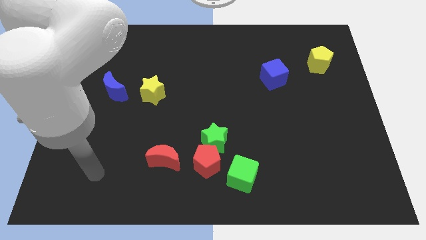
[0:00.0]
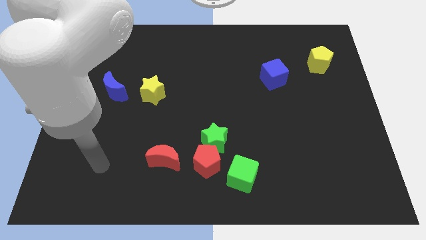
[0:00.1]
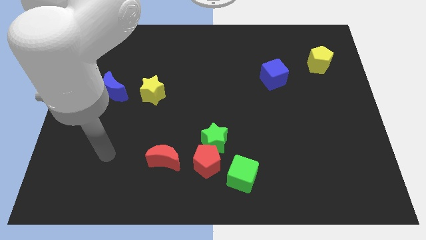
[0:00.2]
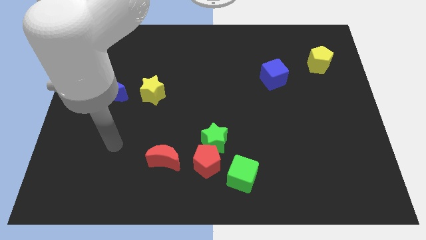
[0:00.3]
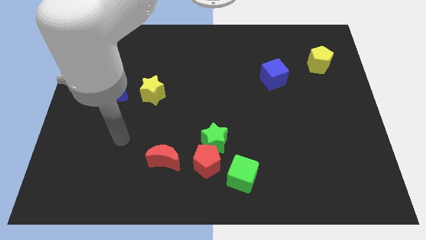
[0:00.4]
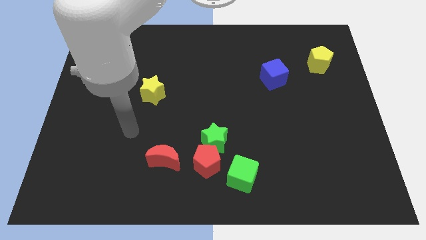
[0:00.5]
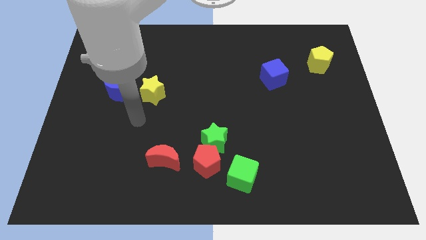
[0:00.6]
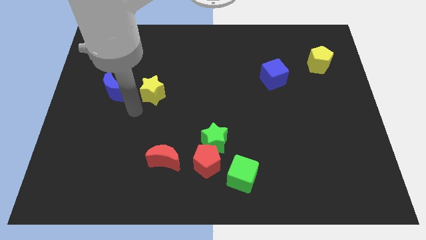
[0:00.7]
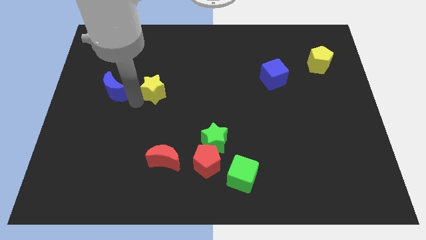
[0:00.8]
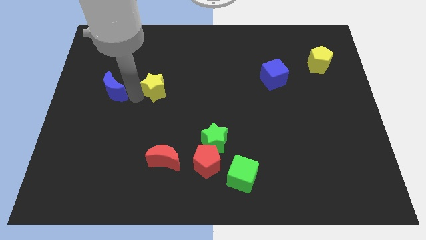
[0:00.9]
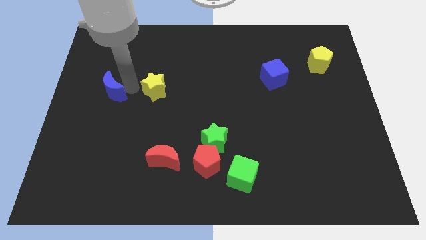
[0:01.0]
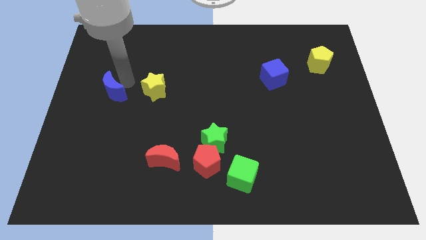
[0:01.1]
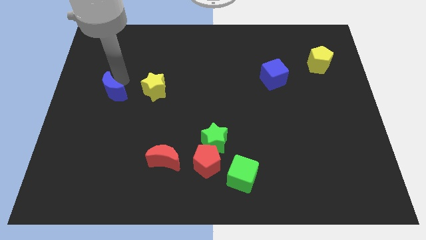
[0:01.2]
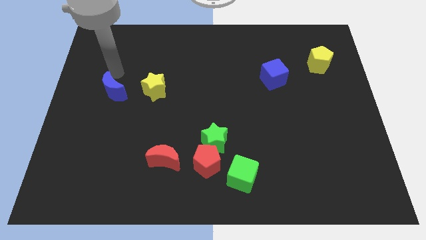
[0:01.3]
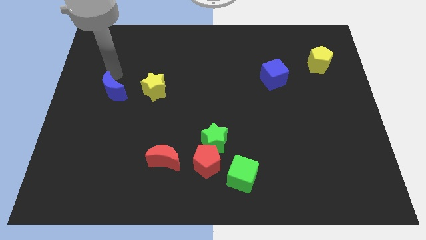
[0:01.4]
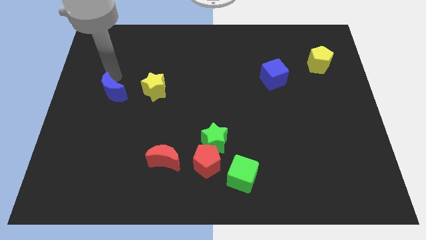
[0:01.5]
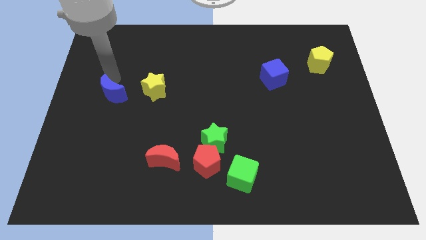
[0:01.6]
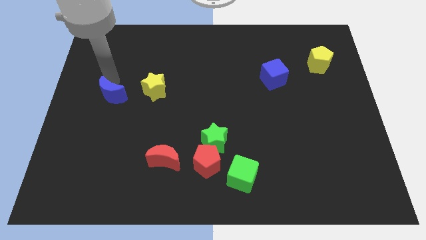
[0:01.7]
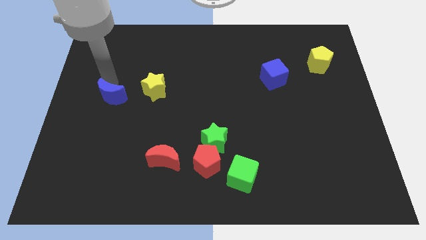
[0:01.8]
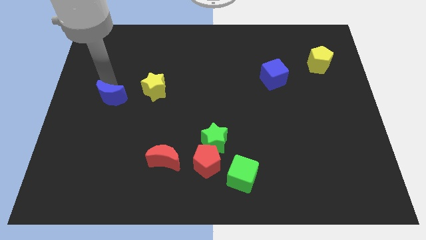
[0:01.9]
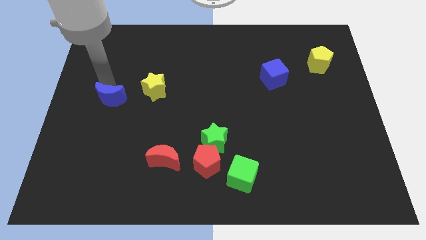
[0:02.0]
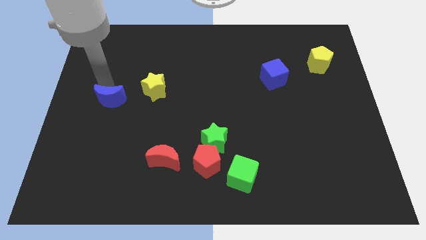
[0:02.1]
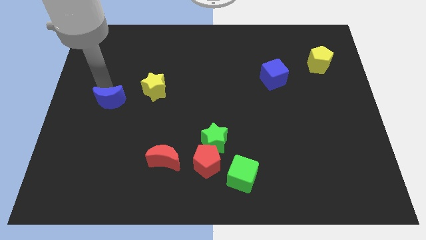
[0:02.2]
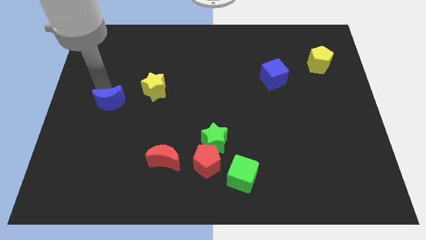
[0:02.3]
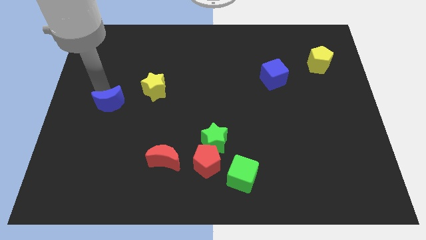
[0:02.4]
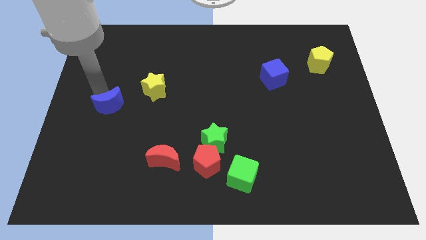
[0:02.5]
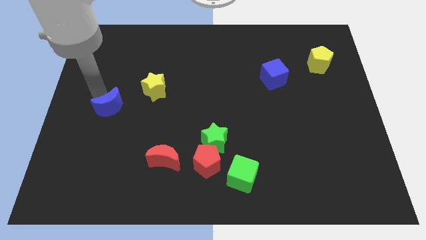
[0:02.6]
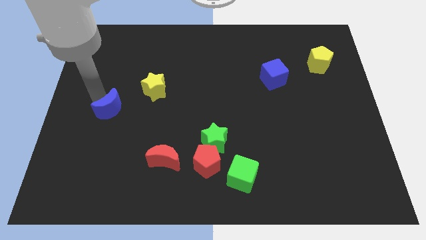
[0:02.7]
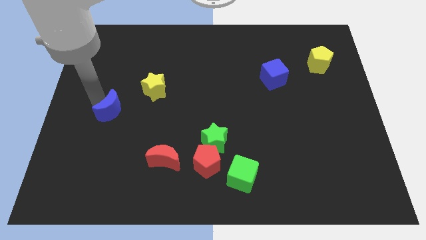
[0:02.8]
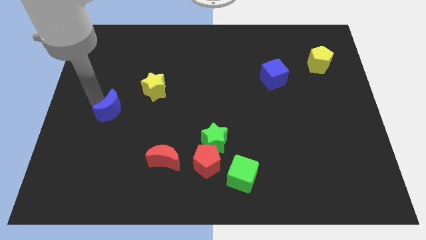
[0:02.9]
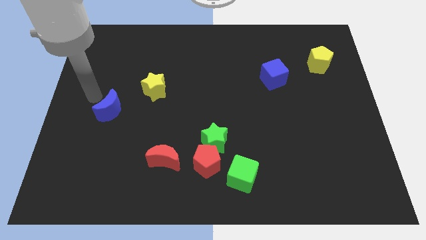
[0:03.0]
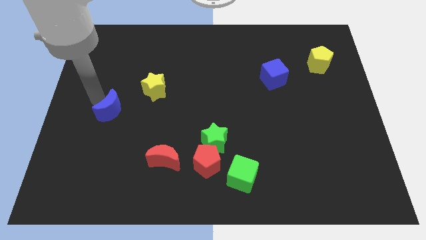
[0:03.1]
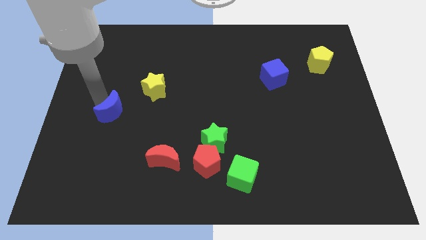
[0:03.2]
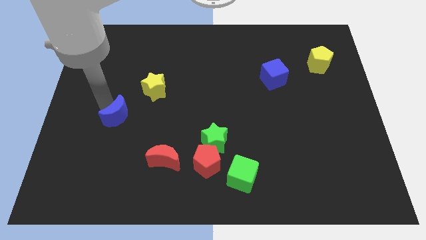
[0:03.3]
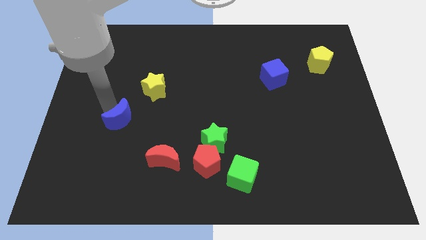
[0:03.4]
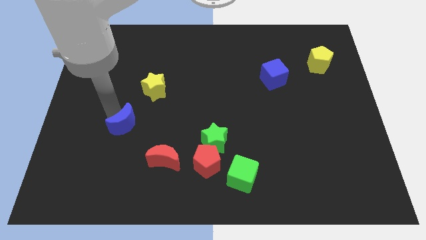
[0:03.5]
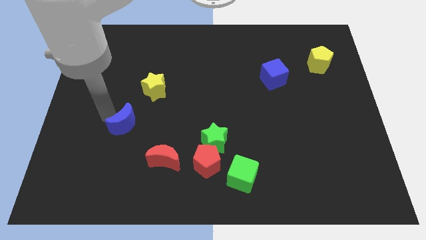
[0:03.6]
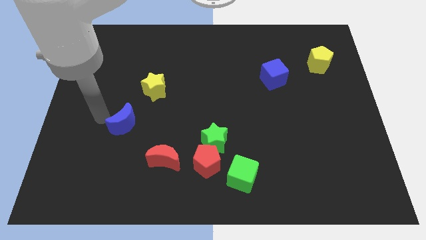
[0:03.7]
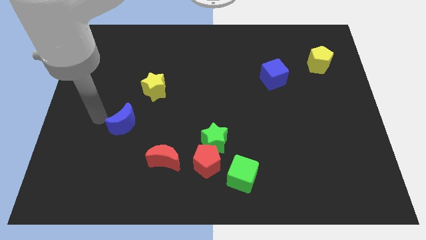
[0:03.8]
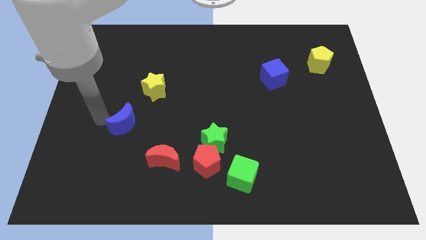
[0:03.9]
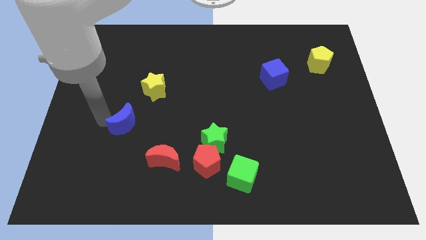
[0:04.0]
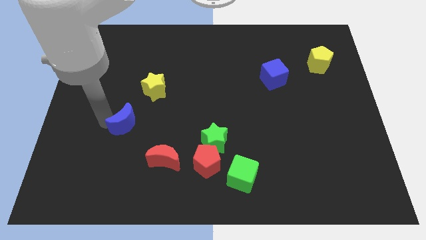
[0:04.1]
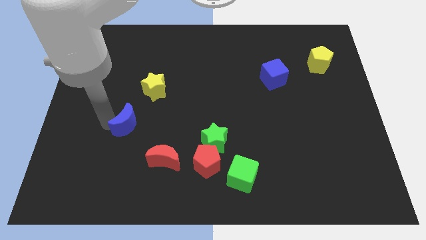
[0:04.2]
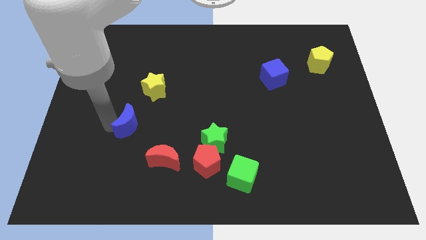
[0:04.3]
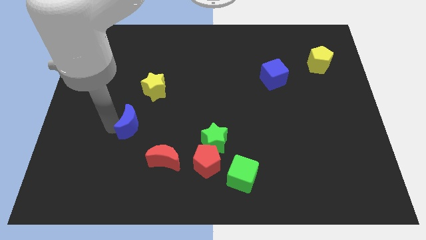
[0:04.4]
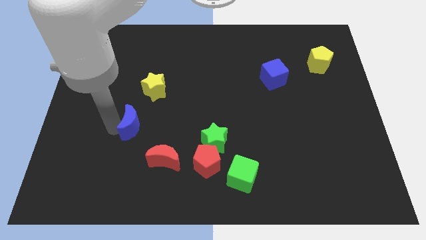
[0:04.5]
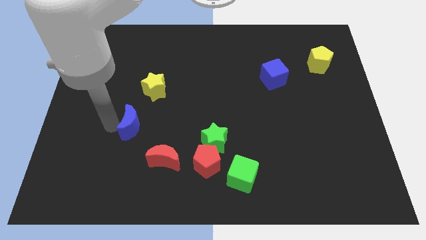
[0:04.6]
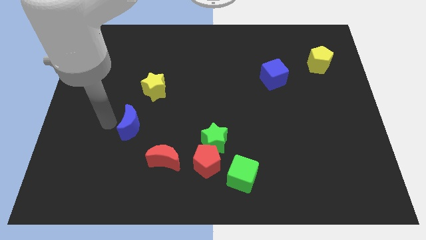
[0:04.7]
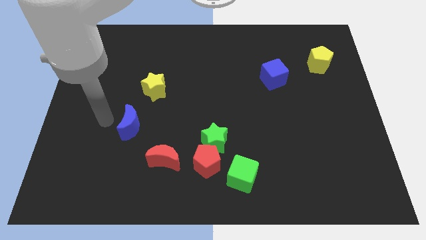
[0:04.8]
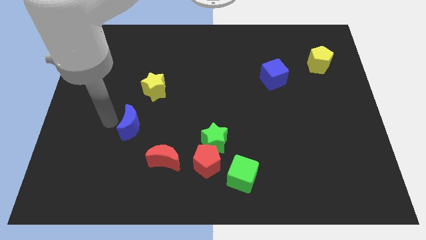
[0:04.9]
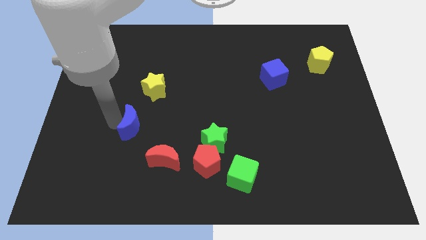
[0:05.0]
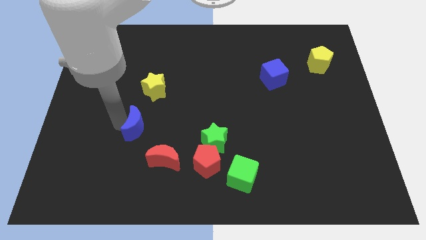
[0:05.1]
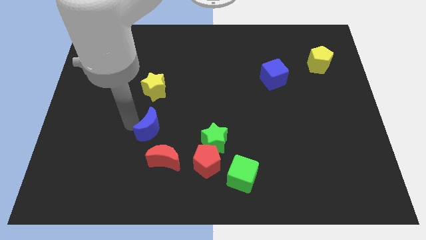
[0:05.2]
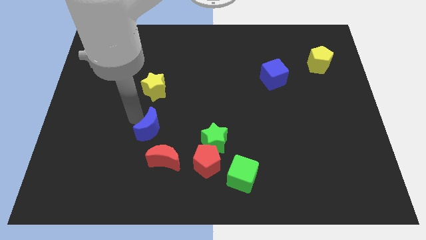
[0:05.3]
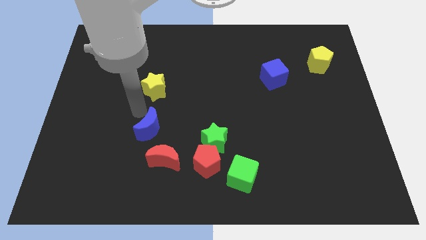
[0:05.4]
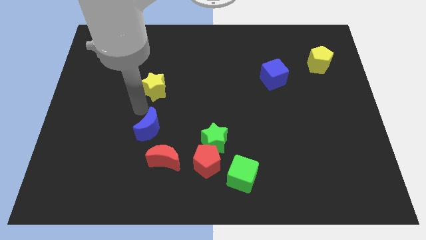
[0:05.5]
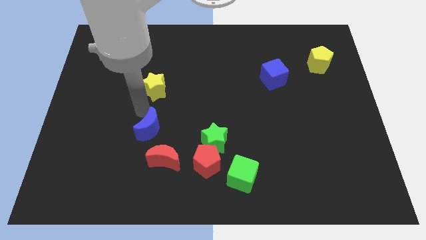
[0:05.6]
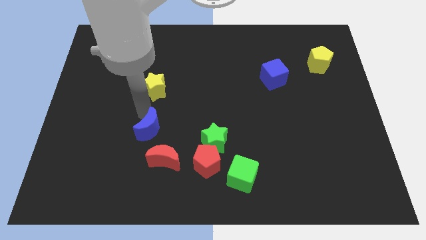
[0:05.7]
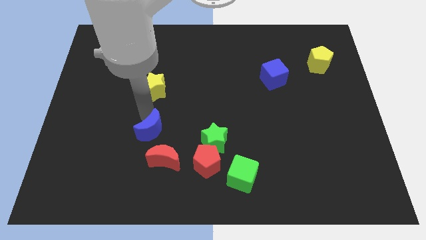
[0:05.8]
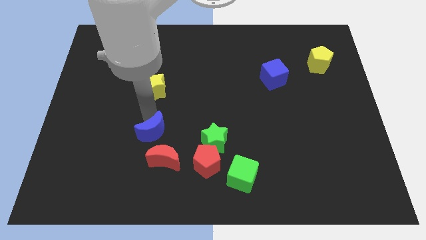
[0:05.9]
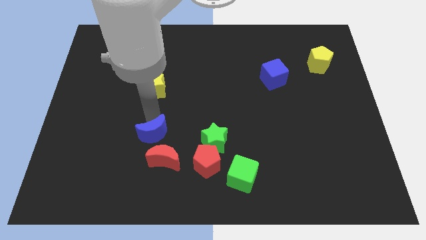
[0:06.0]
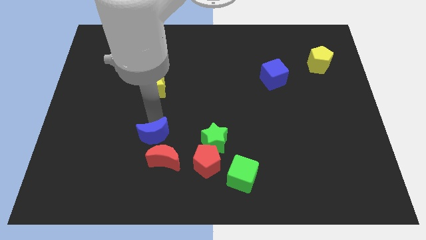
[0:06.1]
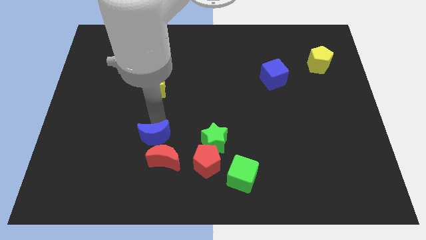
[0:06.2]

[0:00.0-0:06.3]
move the blue moon close to the red moon

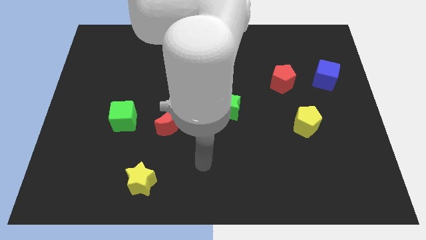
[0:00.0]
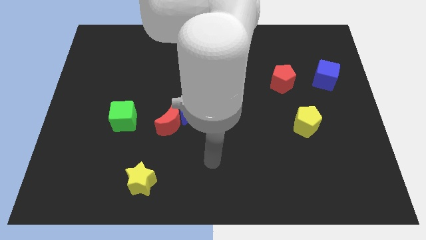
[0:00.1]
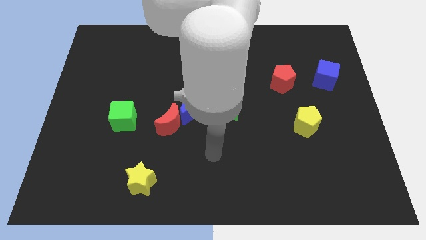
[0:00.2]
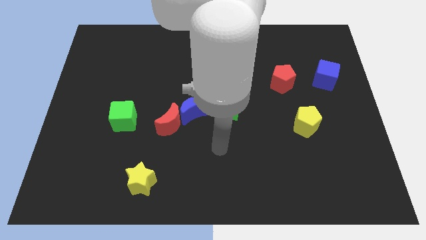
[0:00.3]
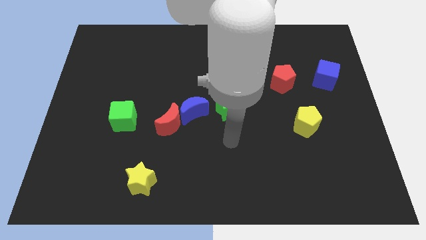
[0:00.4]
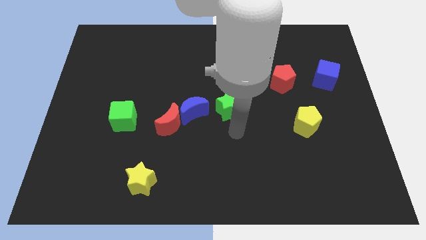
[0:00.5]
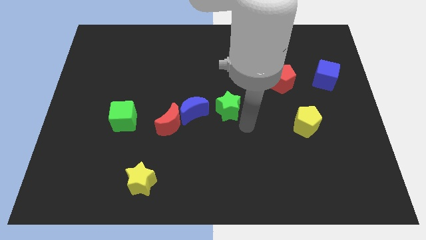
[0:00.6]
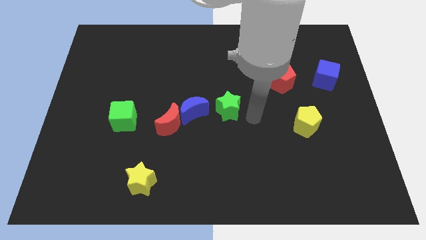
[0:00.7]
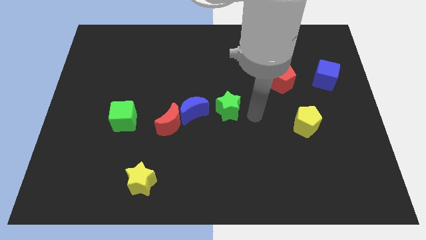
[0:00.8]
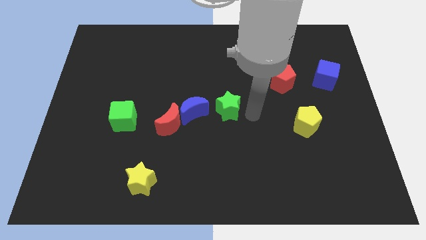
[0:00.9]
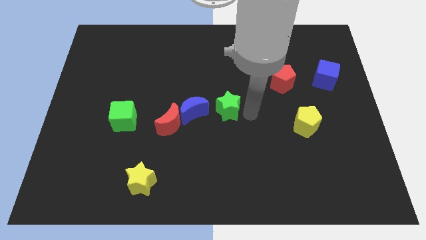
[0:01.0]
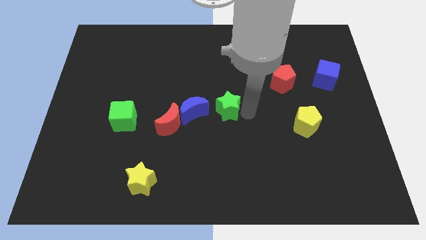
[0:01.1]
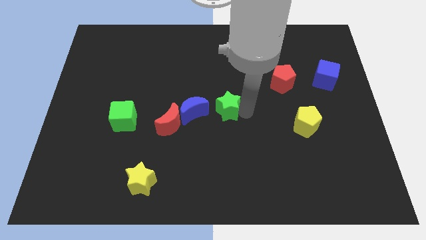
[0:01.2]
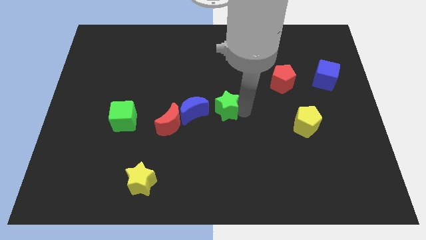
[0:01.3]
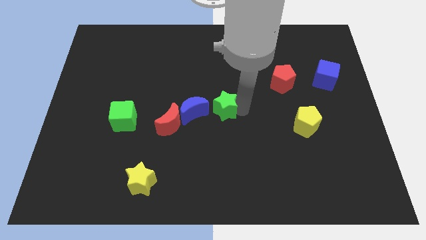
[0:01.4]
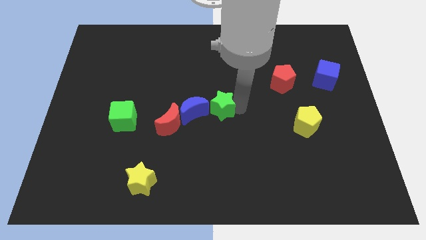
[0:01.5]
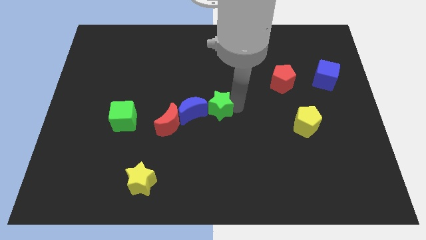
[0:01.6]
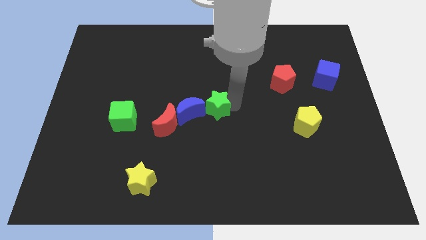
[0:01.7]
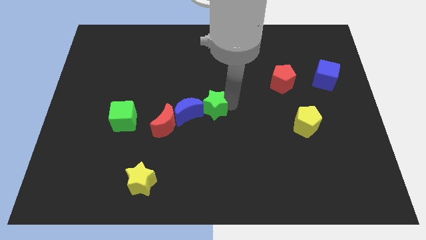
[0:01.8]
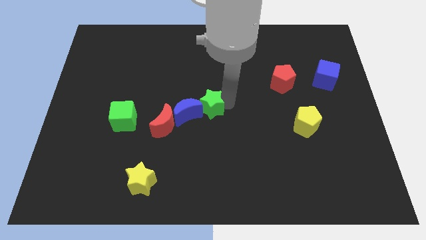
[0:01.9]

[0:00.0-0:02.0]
slide the green star towards the blue moon
